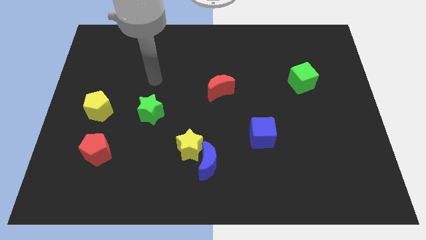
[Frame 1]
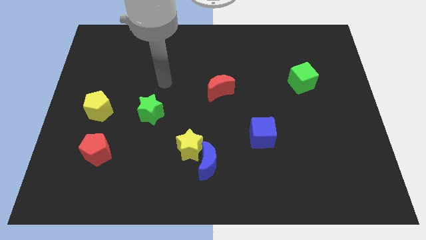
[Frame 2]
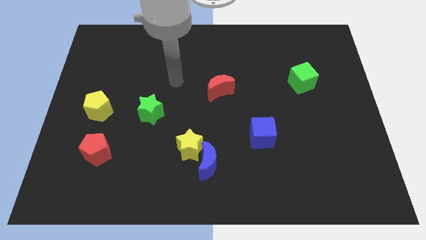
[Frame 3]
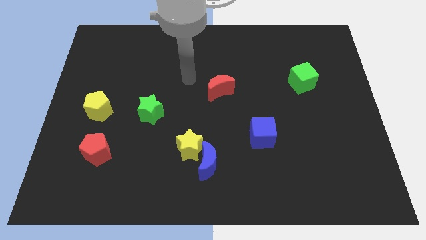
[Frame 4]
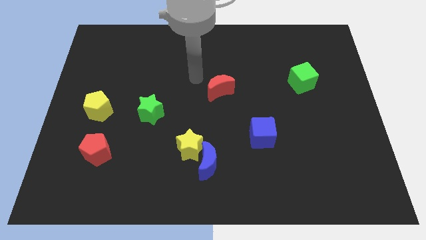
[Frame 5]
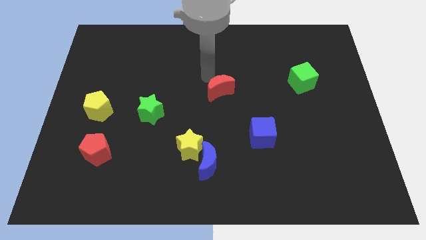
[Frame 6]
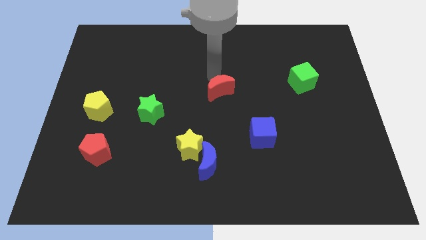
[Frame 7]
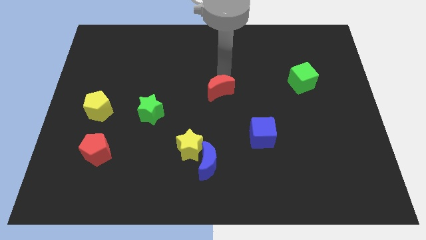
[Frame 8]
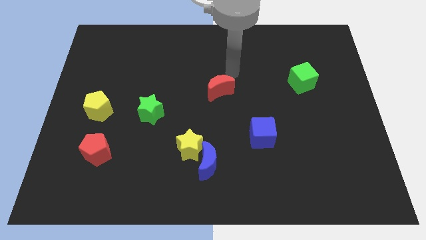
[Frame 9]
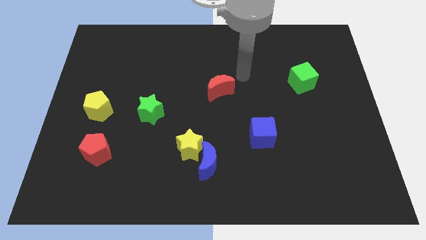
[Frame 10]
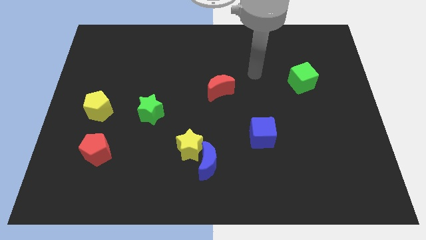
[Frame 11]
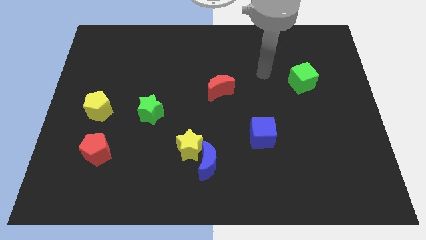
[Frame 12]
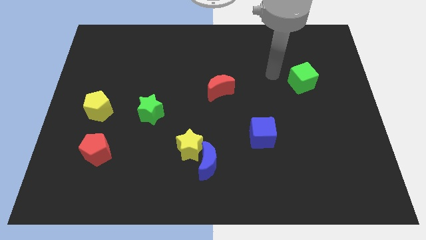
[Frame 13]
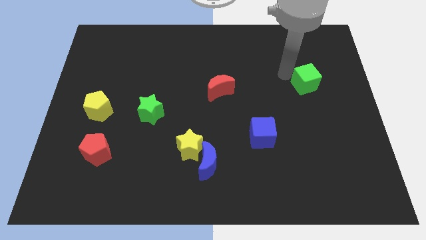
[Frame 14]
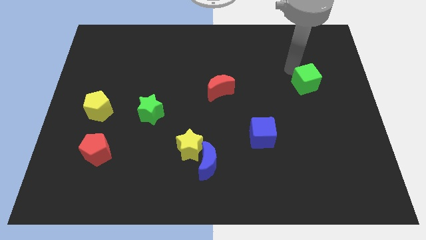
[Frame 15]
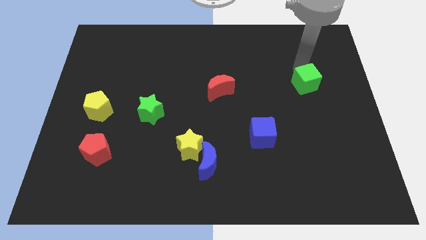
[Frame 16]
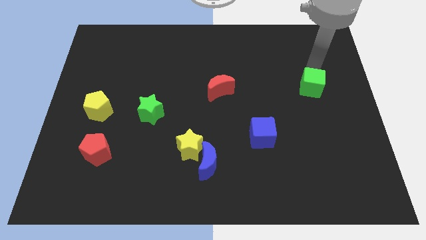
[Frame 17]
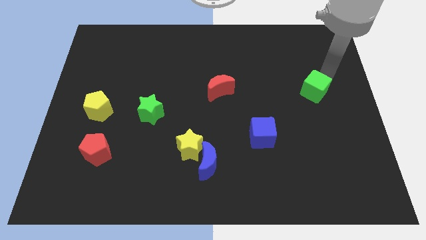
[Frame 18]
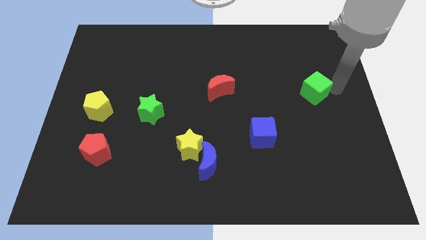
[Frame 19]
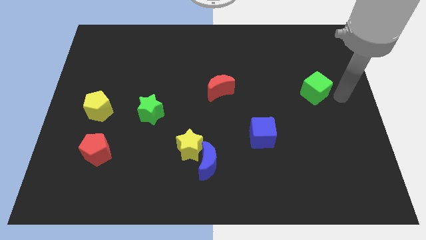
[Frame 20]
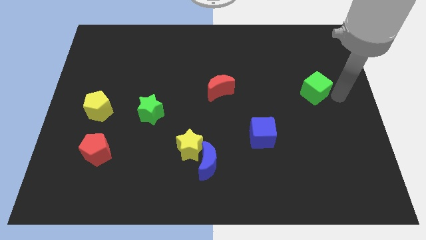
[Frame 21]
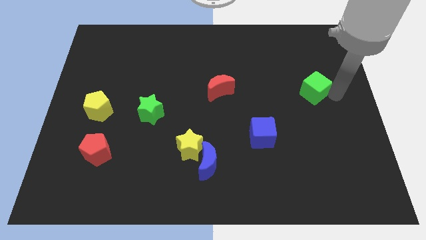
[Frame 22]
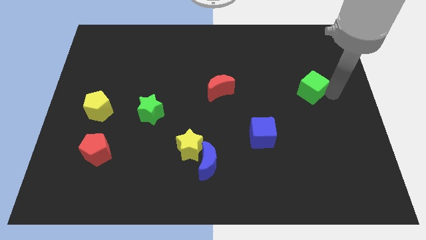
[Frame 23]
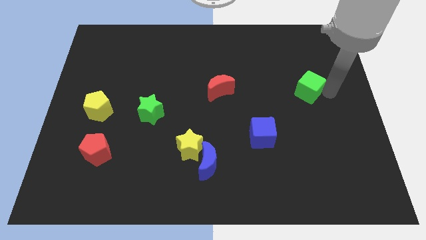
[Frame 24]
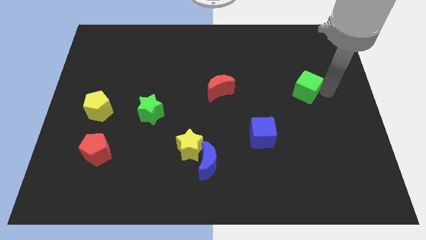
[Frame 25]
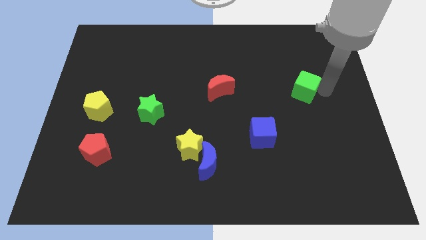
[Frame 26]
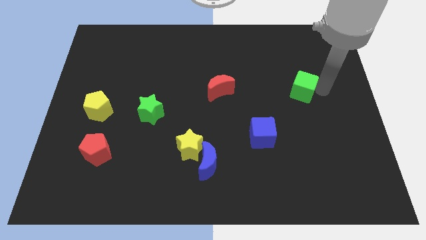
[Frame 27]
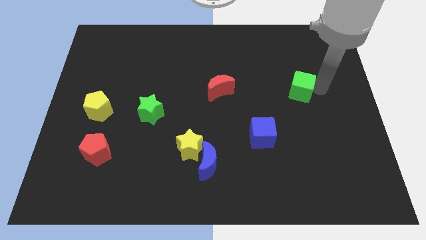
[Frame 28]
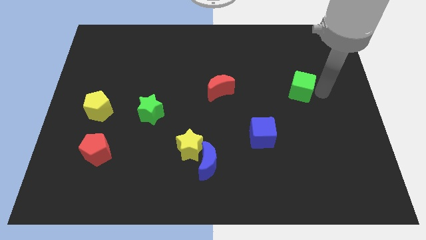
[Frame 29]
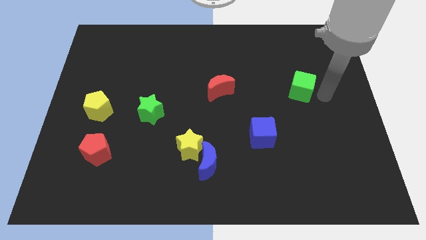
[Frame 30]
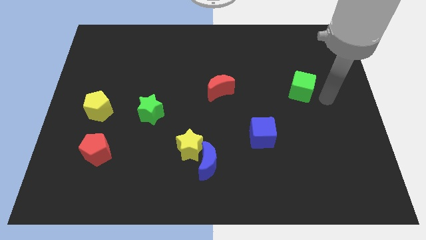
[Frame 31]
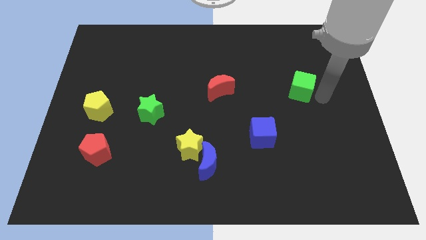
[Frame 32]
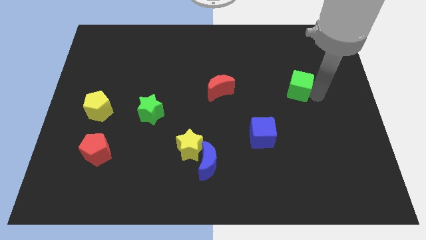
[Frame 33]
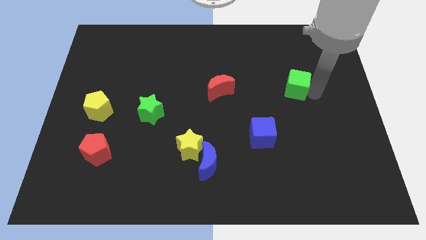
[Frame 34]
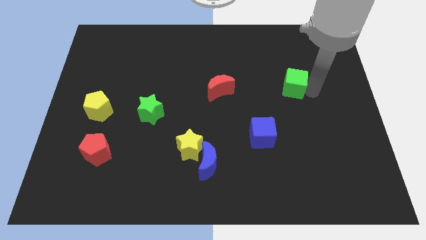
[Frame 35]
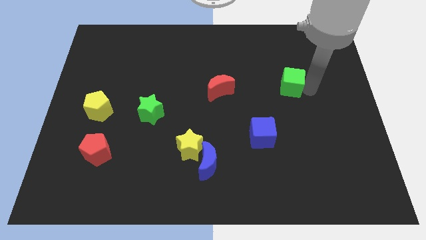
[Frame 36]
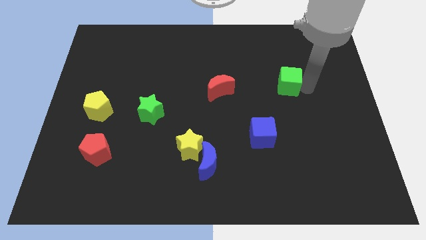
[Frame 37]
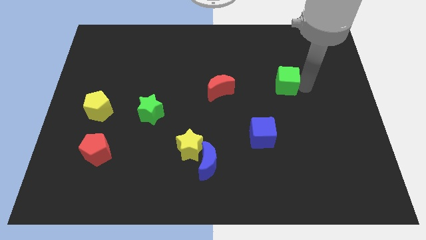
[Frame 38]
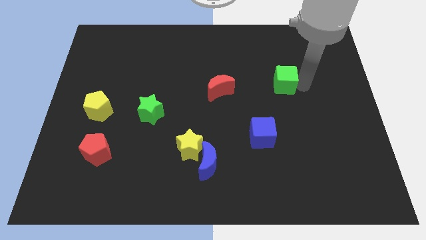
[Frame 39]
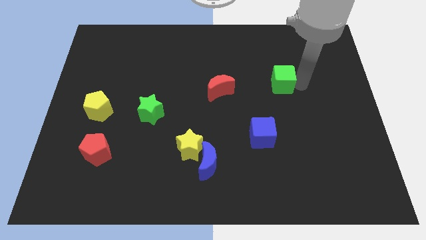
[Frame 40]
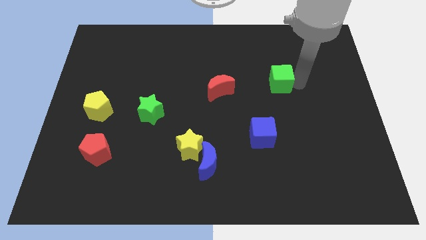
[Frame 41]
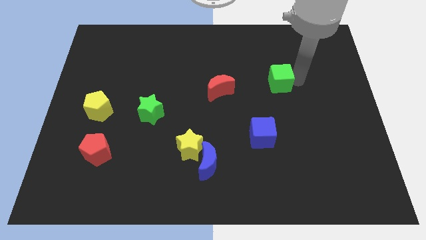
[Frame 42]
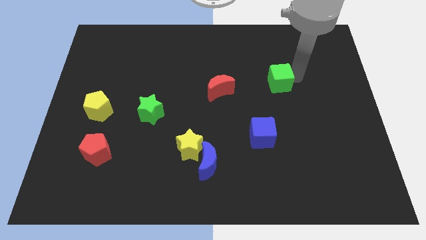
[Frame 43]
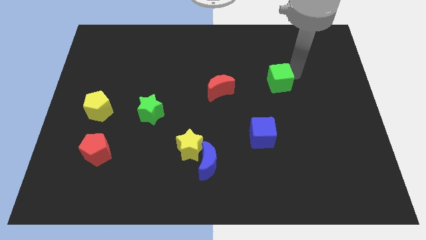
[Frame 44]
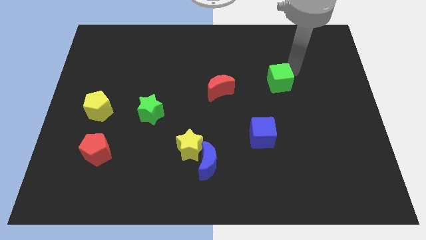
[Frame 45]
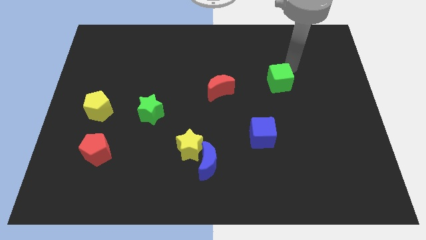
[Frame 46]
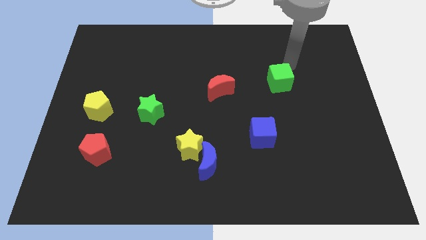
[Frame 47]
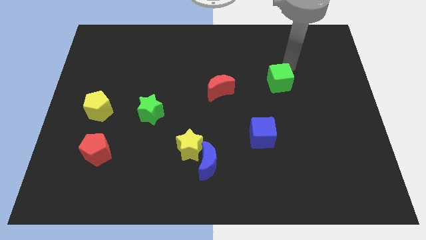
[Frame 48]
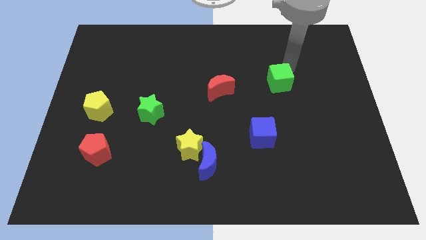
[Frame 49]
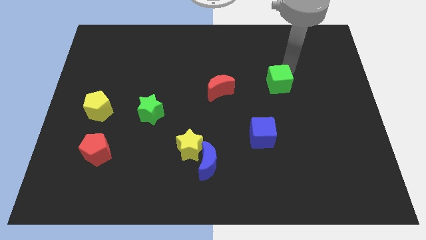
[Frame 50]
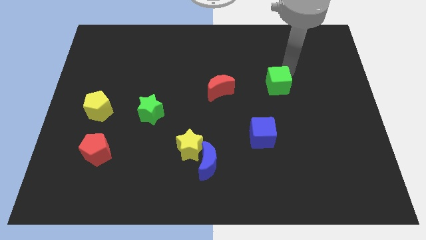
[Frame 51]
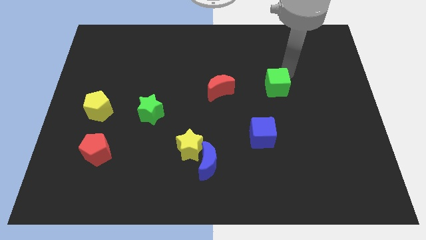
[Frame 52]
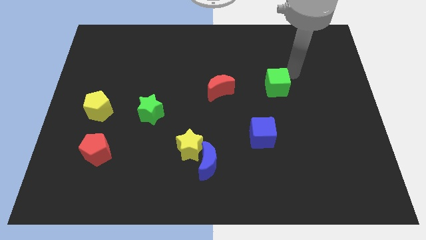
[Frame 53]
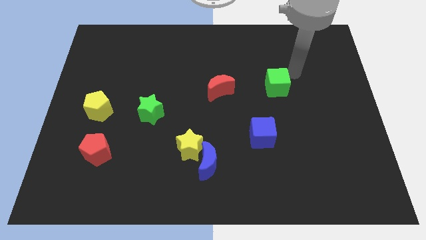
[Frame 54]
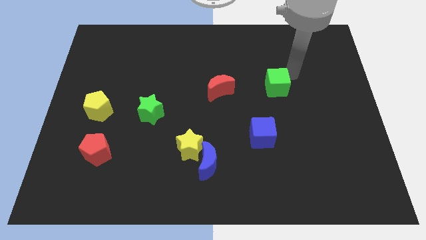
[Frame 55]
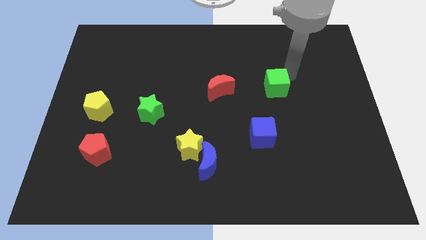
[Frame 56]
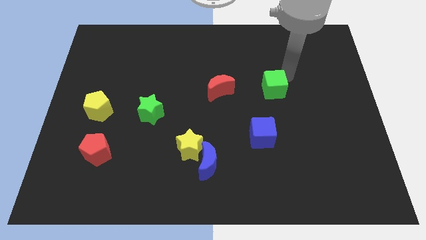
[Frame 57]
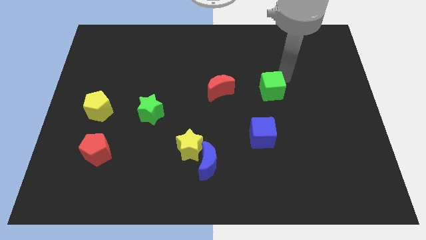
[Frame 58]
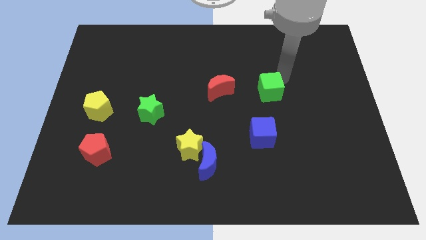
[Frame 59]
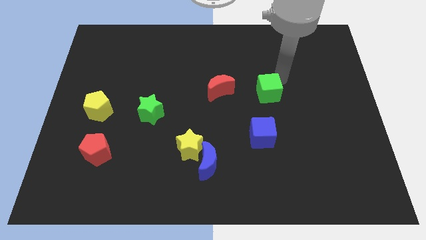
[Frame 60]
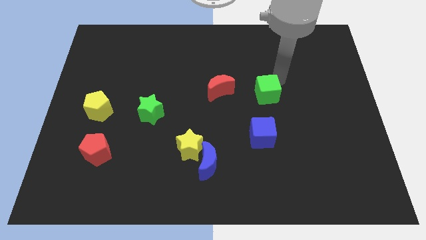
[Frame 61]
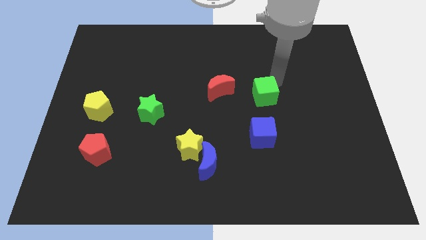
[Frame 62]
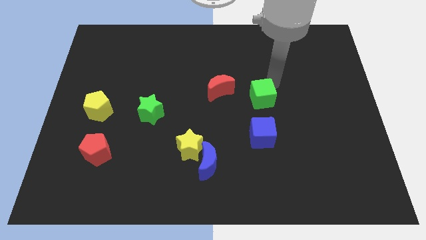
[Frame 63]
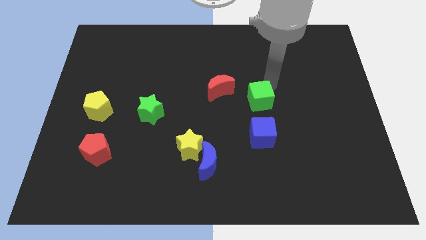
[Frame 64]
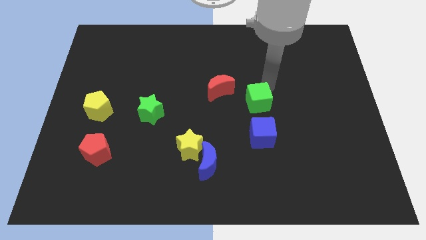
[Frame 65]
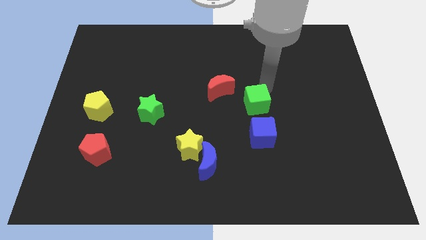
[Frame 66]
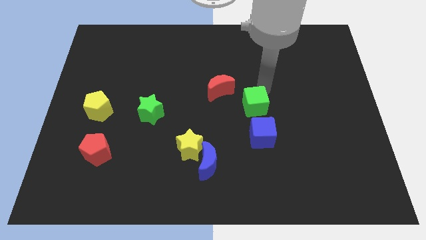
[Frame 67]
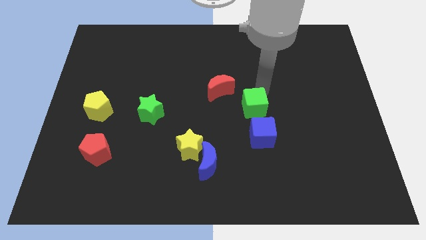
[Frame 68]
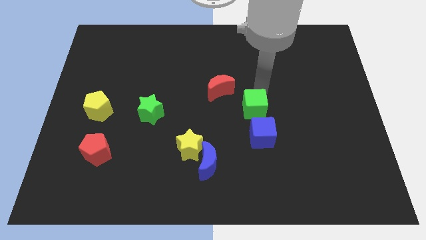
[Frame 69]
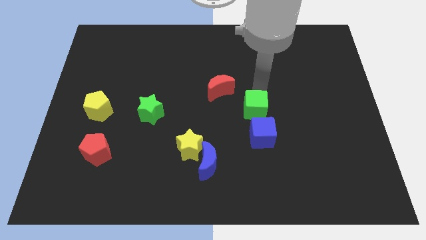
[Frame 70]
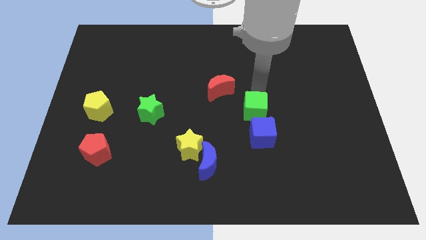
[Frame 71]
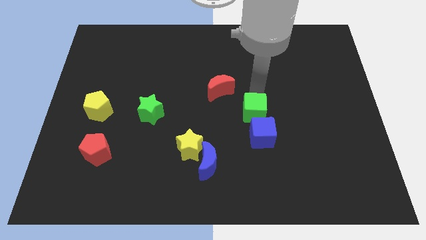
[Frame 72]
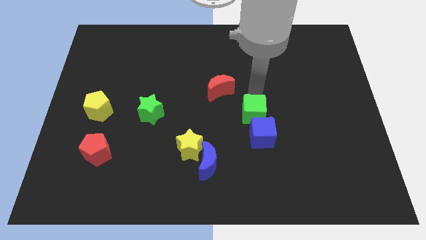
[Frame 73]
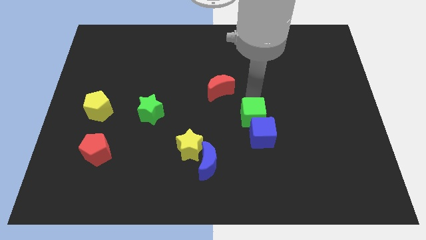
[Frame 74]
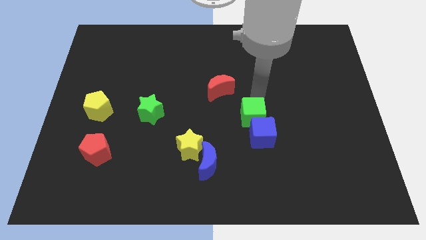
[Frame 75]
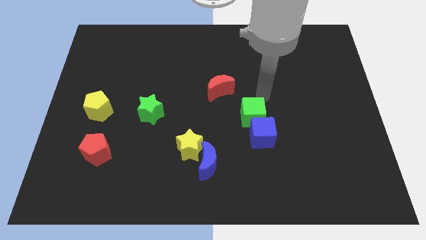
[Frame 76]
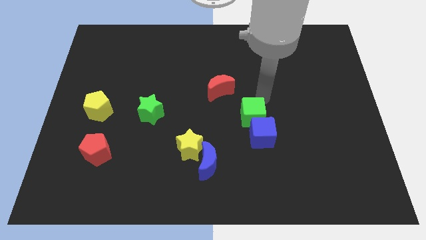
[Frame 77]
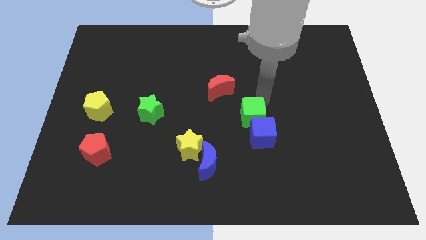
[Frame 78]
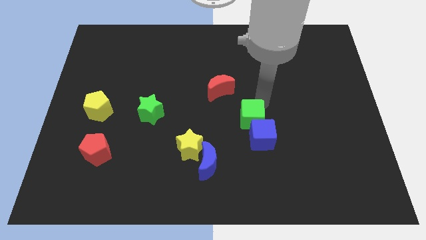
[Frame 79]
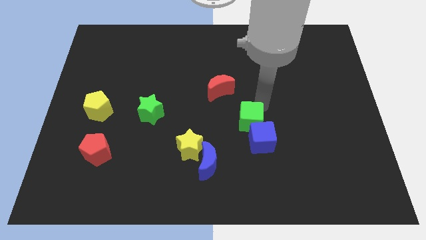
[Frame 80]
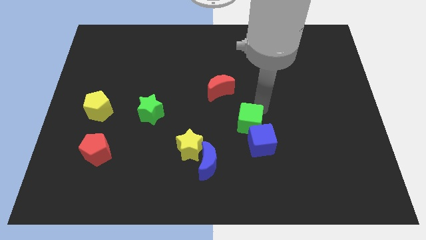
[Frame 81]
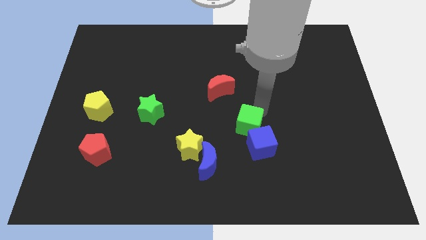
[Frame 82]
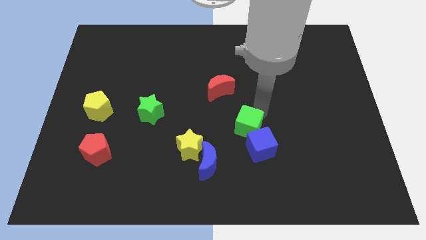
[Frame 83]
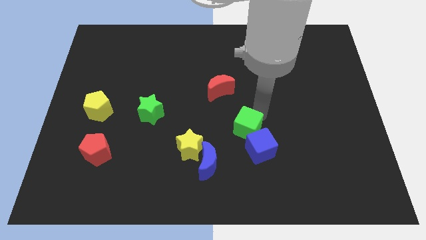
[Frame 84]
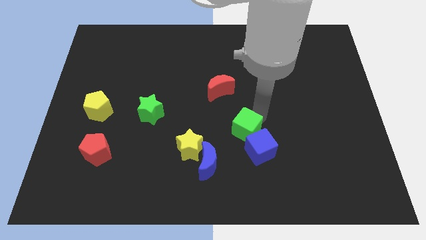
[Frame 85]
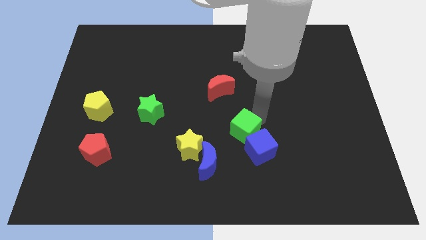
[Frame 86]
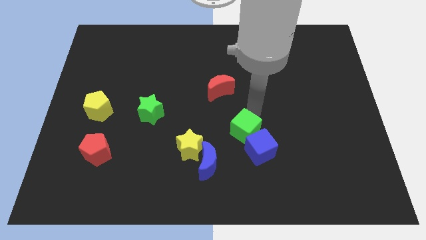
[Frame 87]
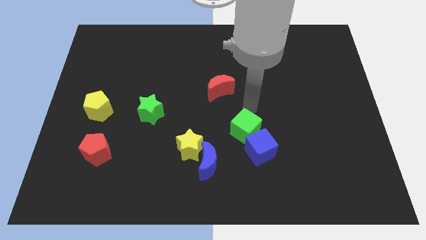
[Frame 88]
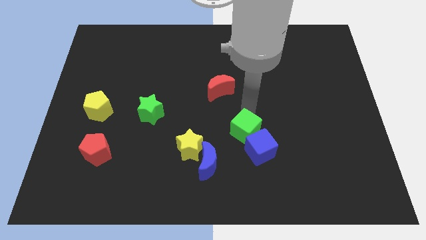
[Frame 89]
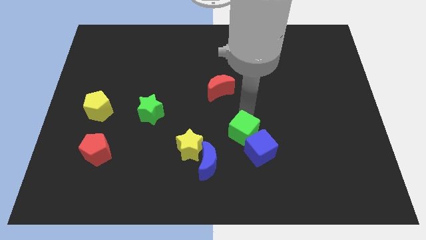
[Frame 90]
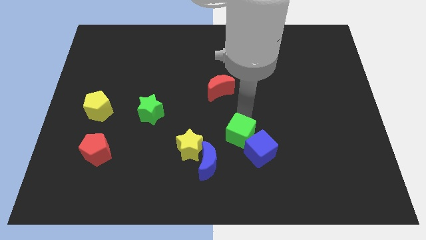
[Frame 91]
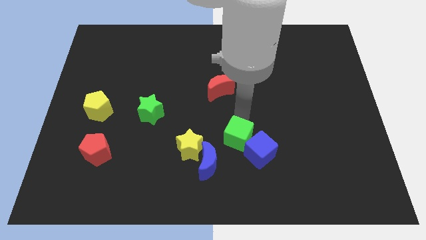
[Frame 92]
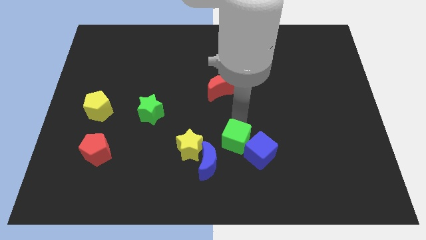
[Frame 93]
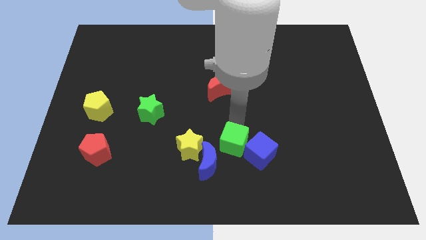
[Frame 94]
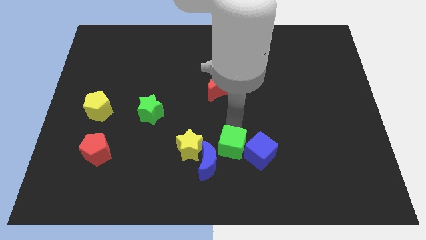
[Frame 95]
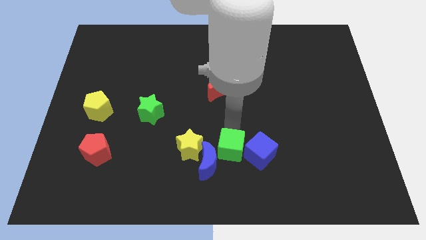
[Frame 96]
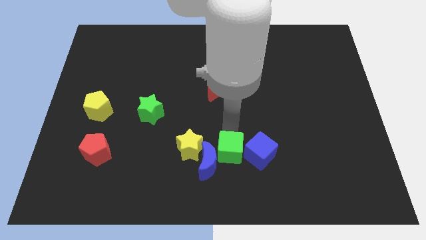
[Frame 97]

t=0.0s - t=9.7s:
slide the green cube to the bottom left side of the blue cube
